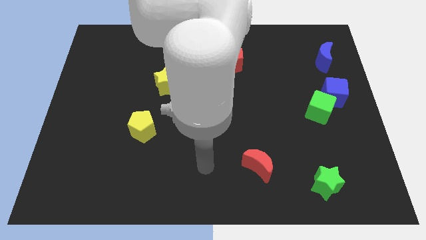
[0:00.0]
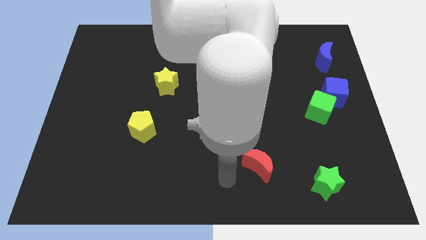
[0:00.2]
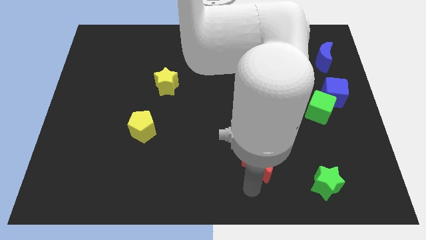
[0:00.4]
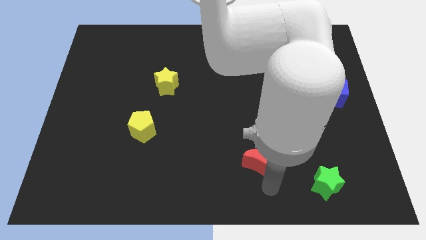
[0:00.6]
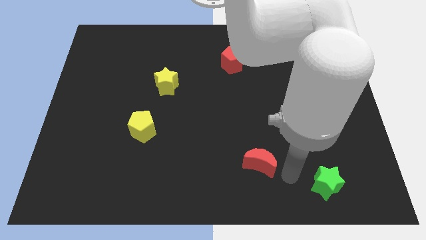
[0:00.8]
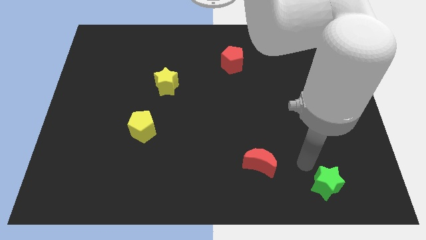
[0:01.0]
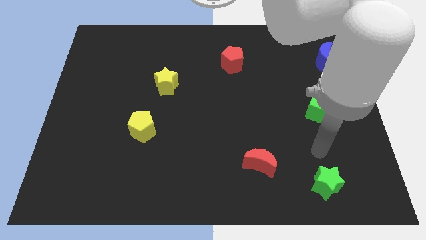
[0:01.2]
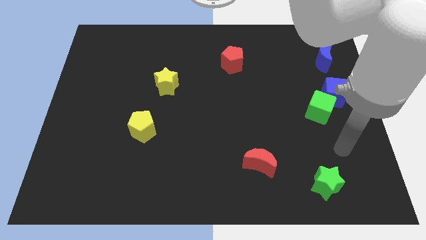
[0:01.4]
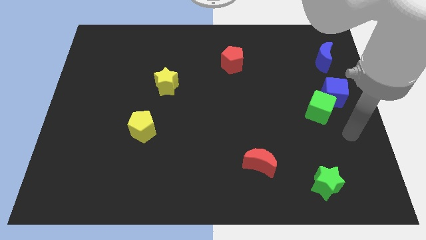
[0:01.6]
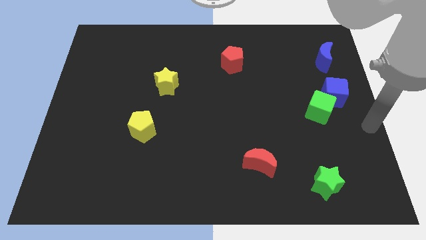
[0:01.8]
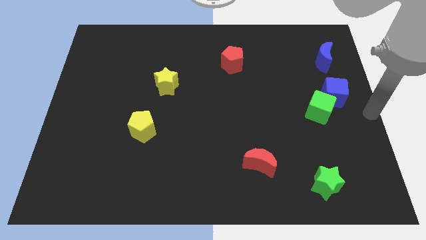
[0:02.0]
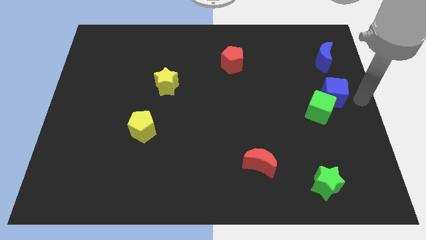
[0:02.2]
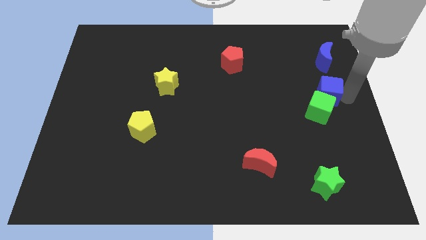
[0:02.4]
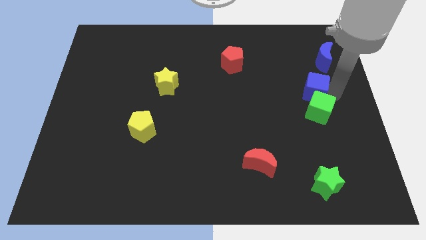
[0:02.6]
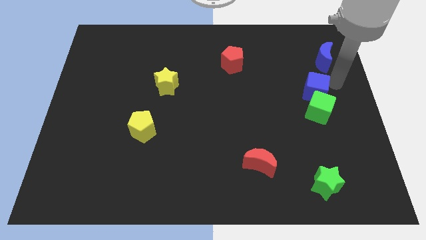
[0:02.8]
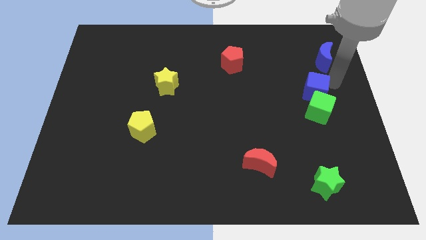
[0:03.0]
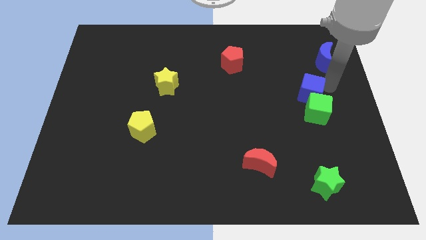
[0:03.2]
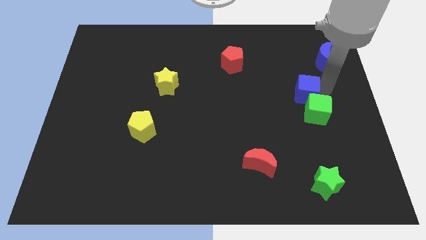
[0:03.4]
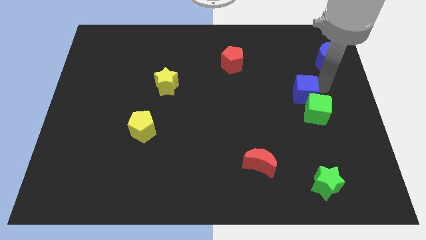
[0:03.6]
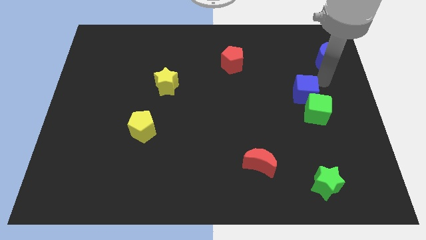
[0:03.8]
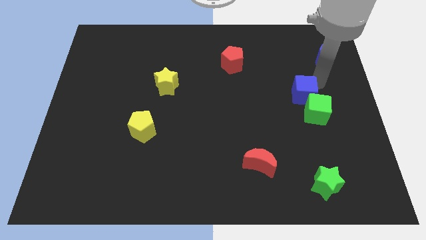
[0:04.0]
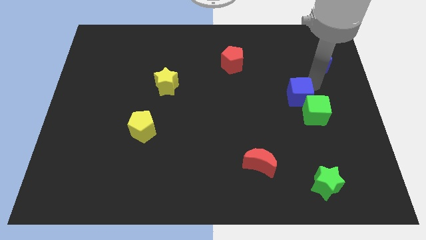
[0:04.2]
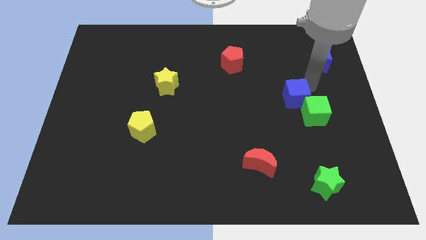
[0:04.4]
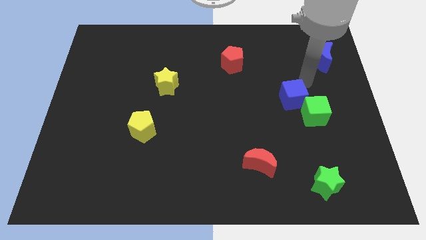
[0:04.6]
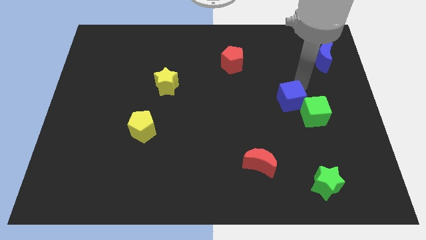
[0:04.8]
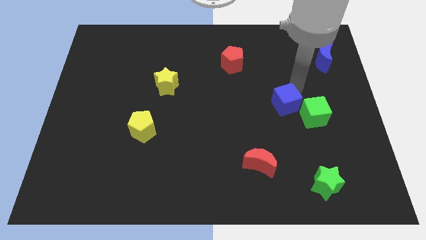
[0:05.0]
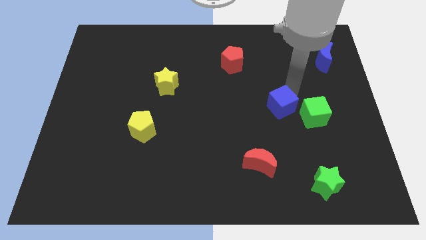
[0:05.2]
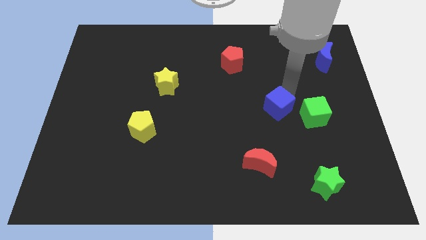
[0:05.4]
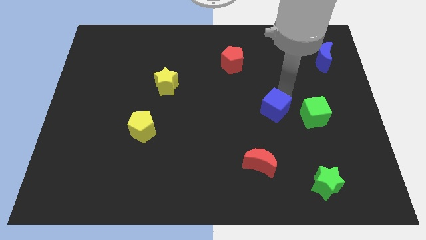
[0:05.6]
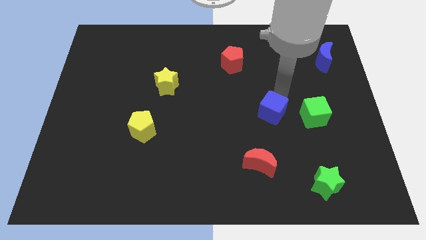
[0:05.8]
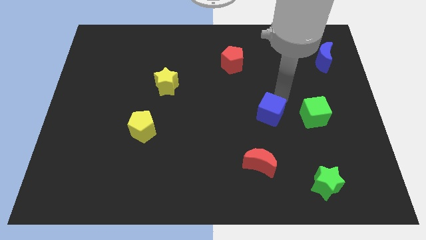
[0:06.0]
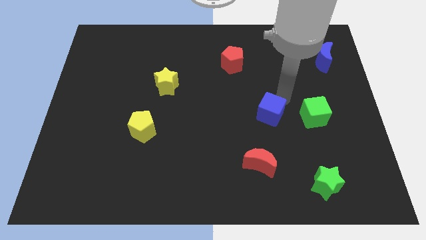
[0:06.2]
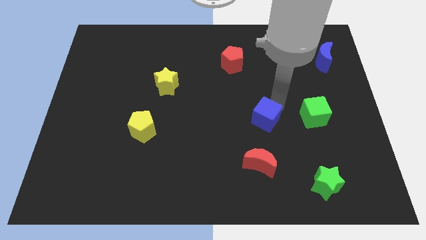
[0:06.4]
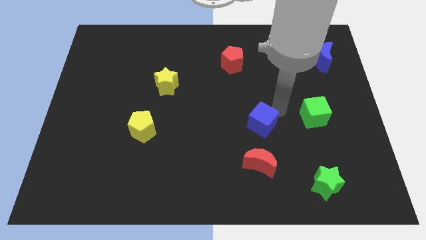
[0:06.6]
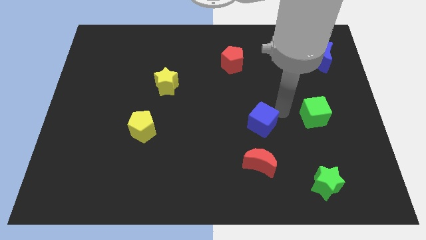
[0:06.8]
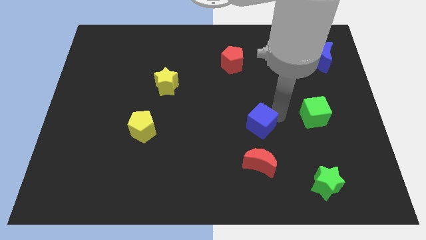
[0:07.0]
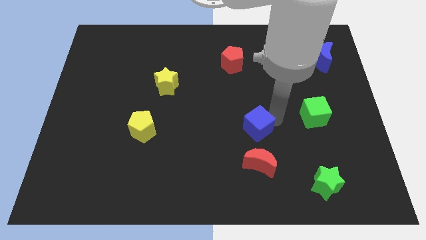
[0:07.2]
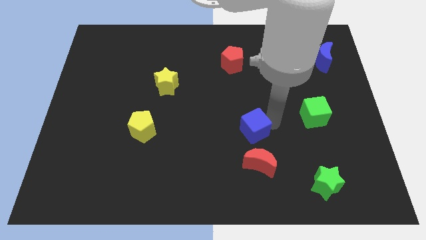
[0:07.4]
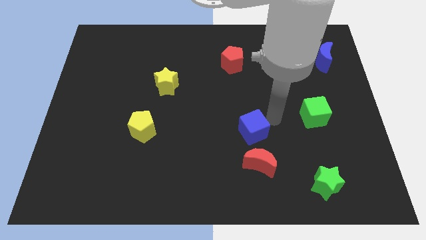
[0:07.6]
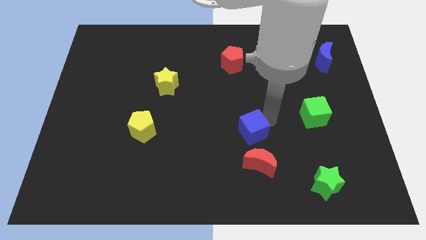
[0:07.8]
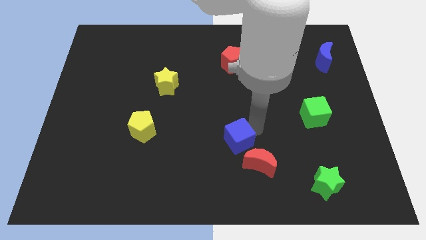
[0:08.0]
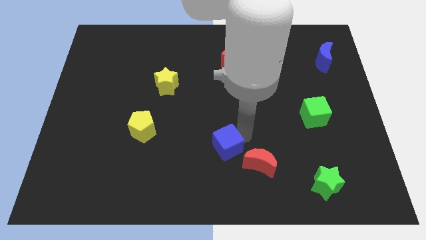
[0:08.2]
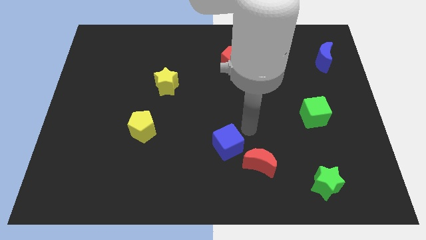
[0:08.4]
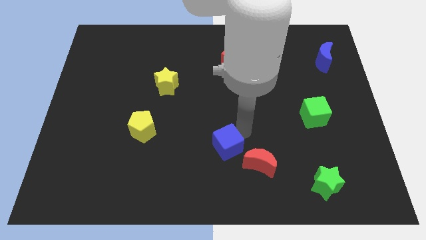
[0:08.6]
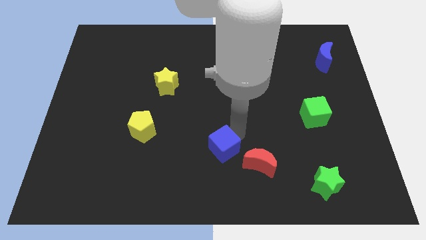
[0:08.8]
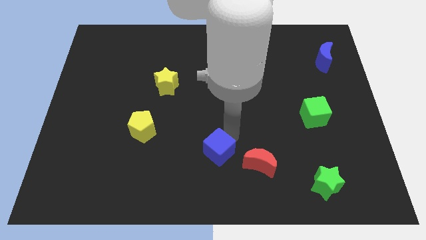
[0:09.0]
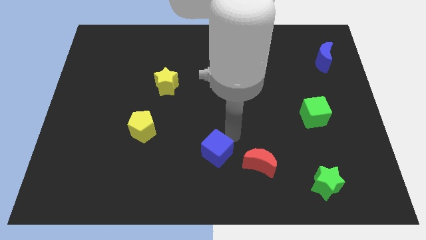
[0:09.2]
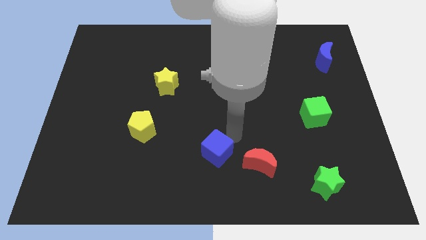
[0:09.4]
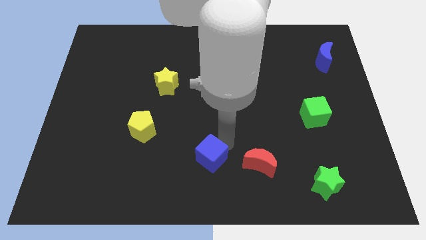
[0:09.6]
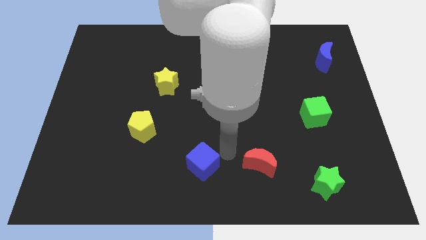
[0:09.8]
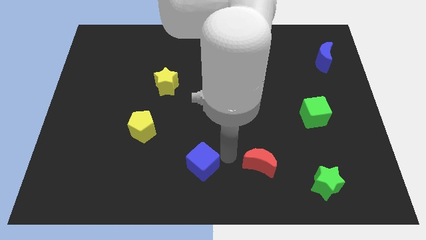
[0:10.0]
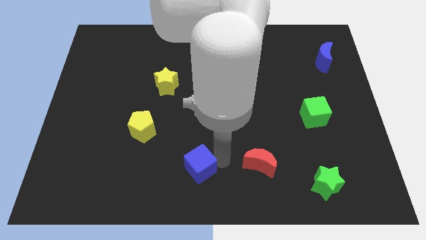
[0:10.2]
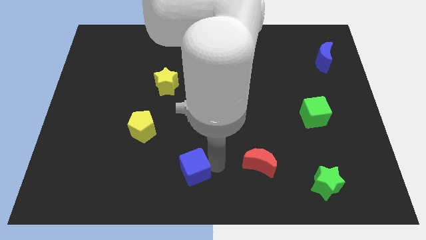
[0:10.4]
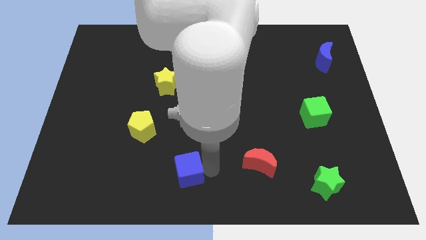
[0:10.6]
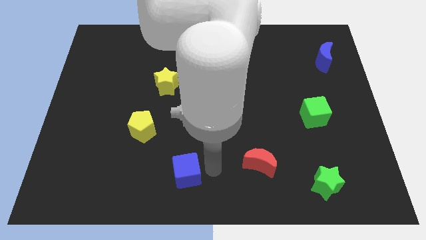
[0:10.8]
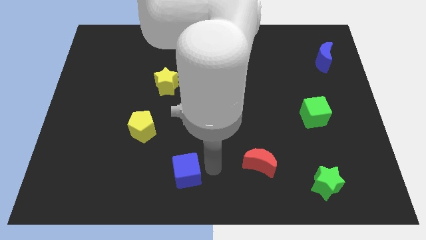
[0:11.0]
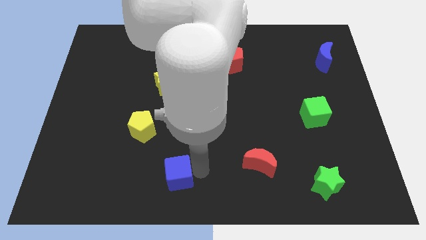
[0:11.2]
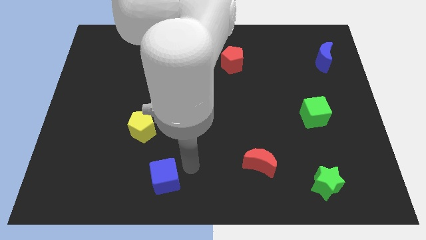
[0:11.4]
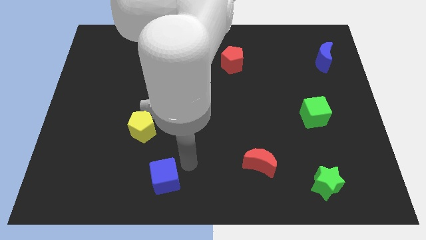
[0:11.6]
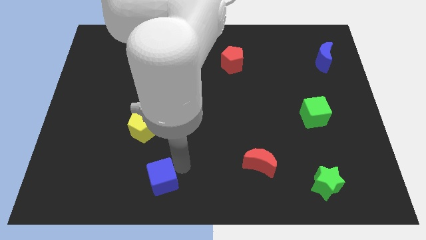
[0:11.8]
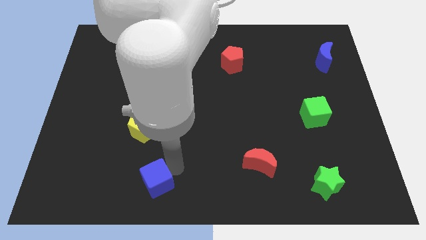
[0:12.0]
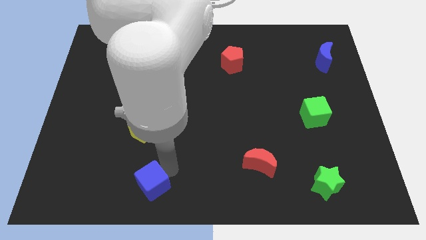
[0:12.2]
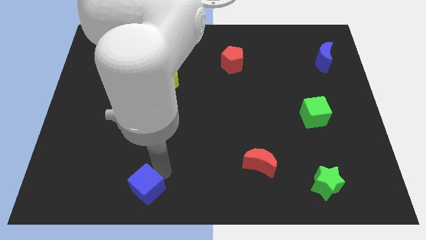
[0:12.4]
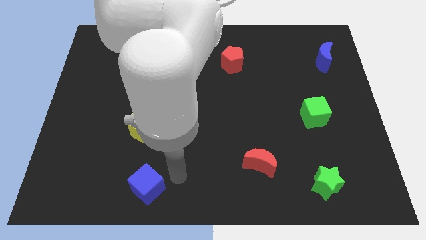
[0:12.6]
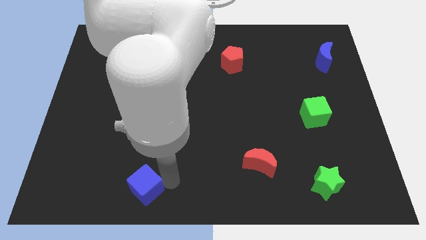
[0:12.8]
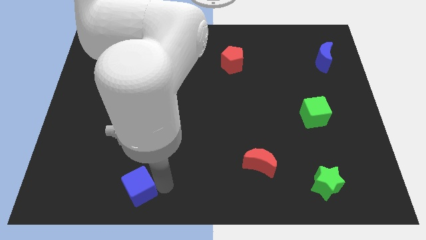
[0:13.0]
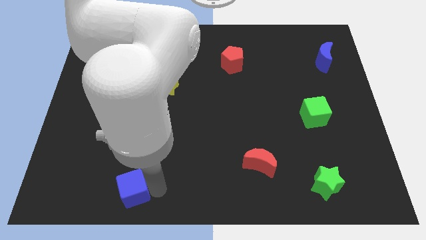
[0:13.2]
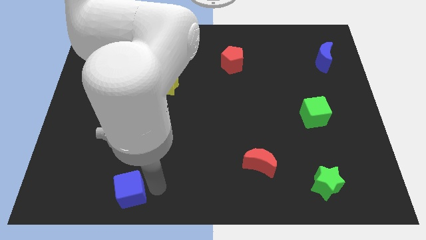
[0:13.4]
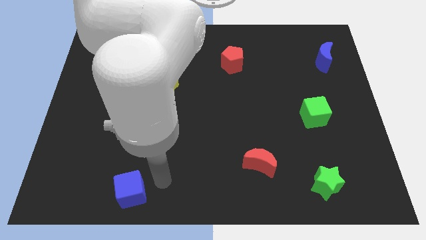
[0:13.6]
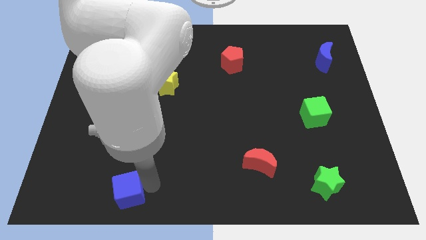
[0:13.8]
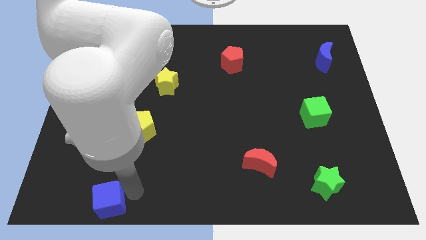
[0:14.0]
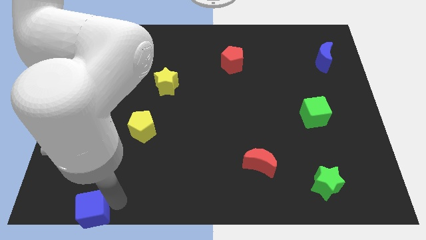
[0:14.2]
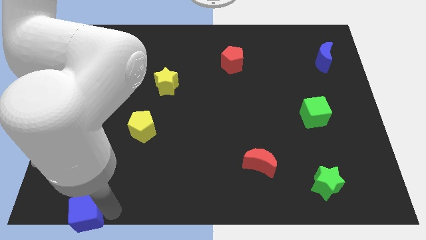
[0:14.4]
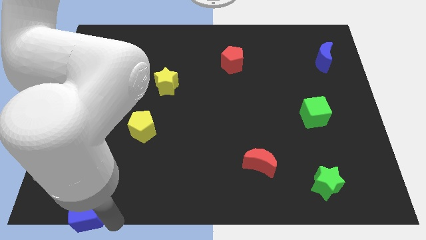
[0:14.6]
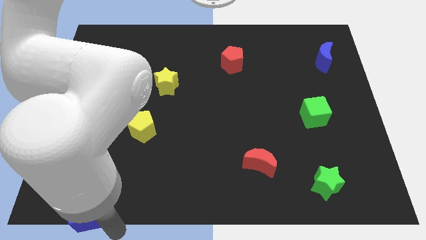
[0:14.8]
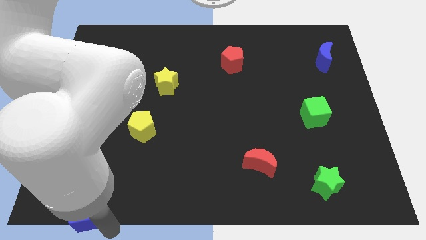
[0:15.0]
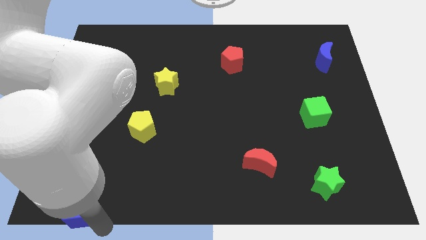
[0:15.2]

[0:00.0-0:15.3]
move the blue cube to the bottom left of the board
